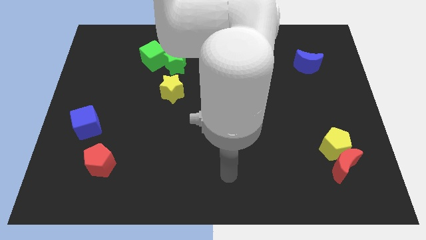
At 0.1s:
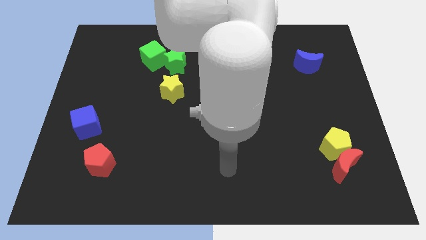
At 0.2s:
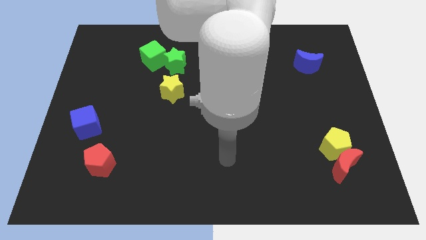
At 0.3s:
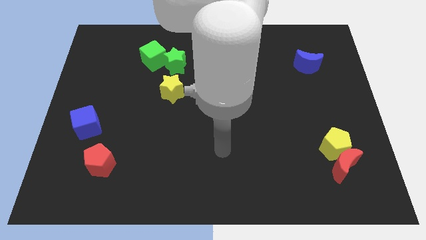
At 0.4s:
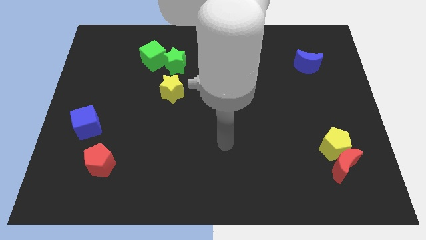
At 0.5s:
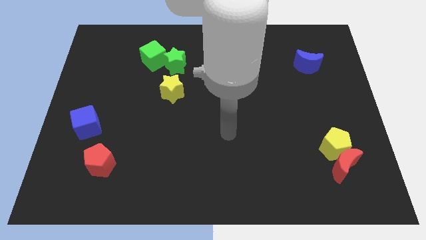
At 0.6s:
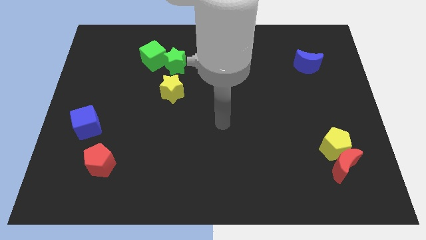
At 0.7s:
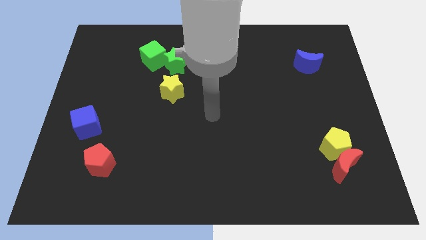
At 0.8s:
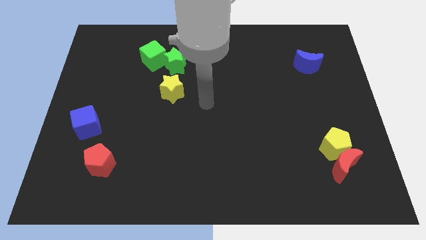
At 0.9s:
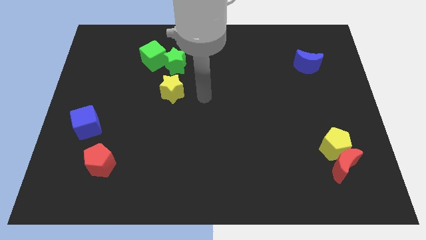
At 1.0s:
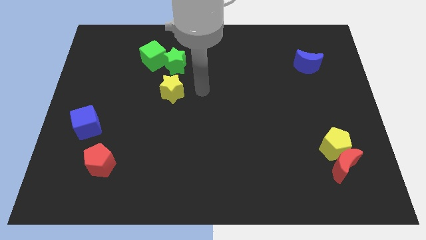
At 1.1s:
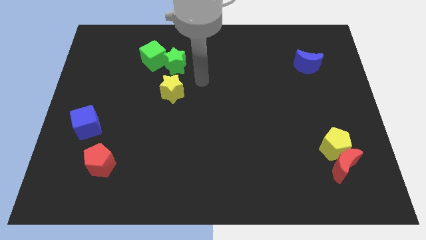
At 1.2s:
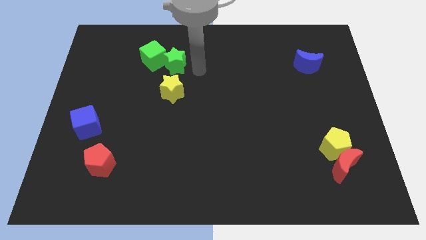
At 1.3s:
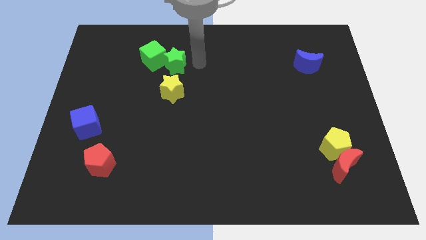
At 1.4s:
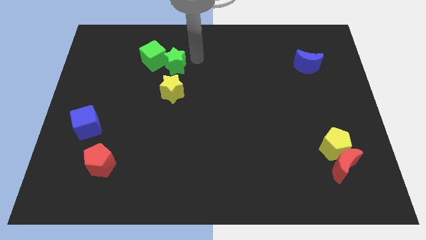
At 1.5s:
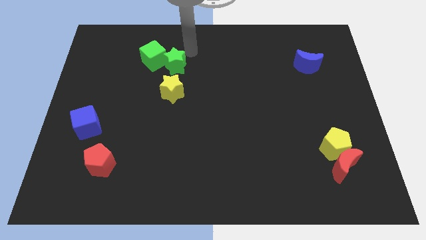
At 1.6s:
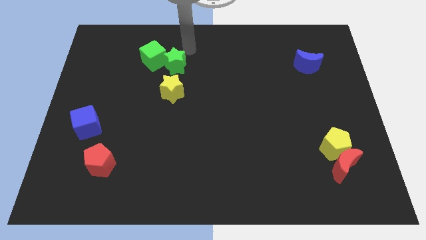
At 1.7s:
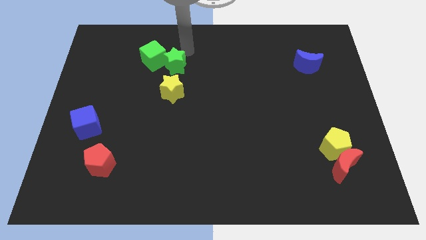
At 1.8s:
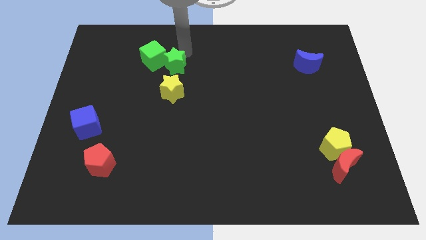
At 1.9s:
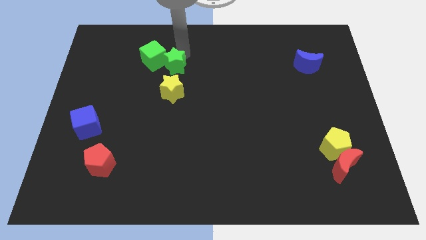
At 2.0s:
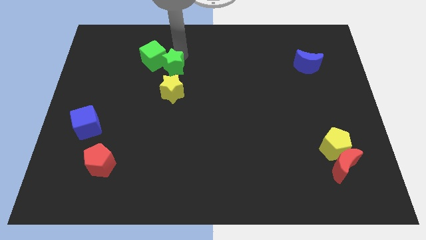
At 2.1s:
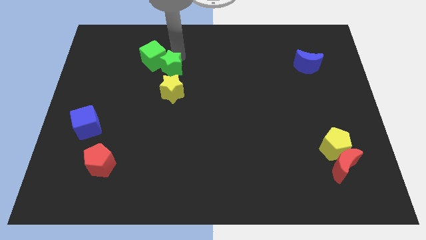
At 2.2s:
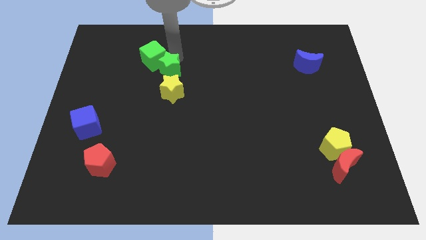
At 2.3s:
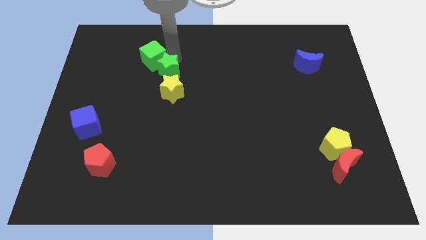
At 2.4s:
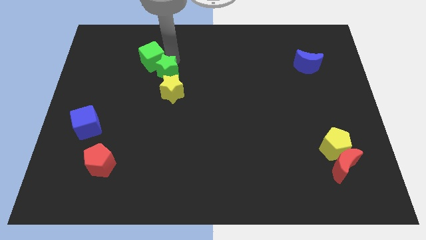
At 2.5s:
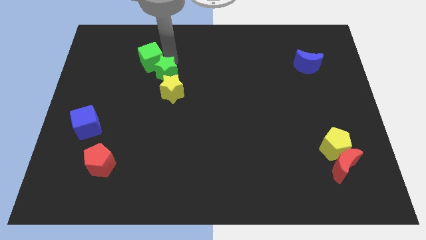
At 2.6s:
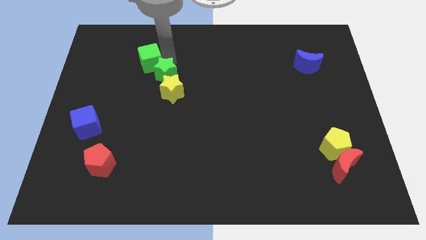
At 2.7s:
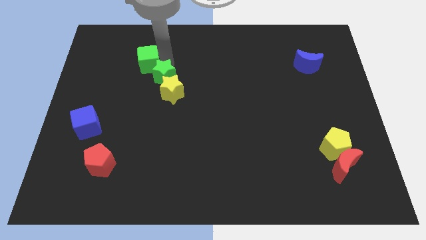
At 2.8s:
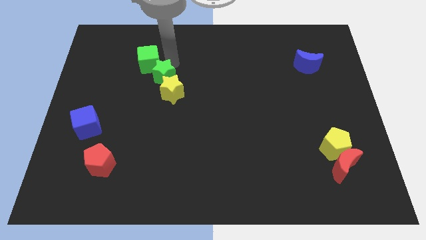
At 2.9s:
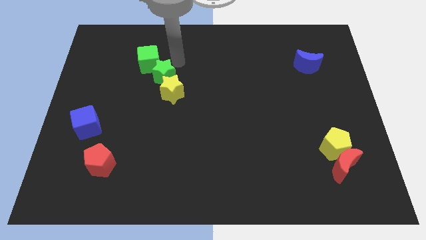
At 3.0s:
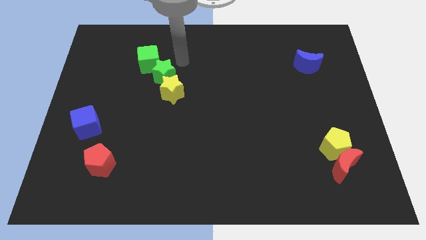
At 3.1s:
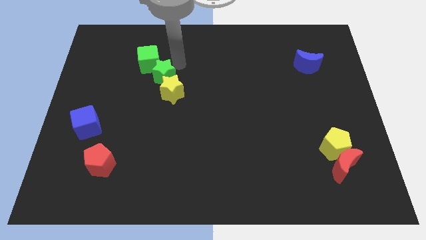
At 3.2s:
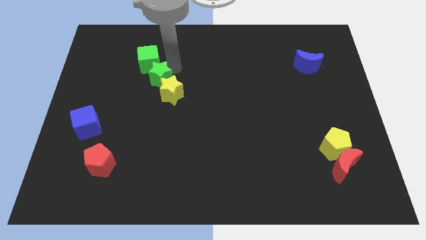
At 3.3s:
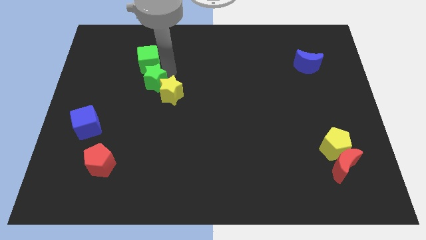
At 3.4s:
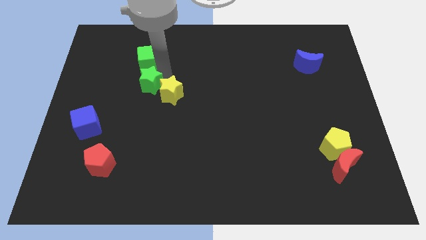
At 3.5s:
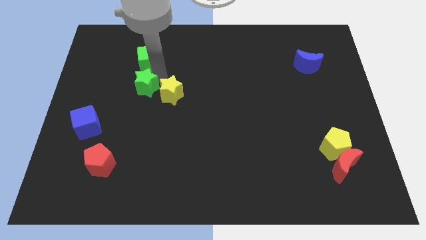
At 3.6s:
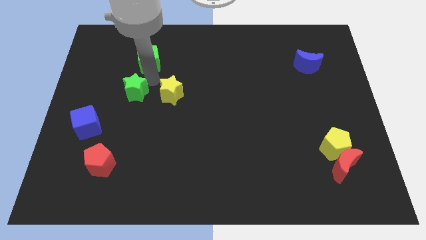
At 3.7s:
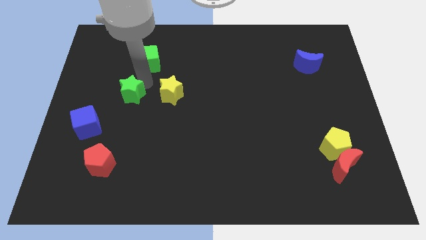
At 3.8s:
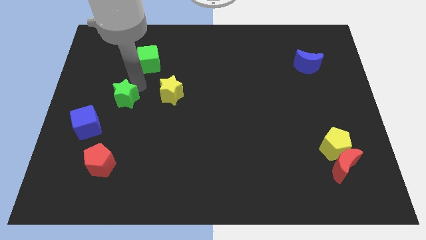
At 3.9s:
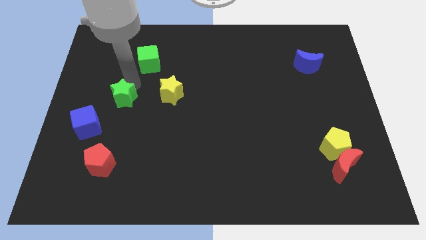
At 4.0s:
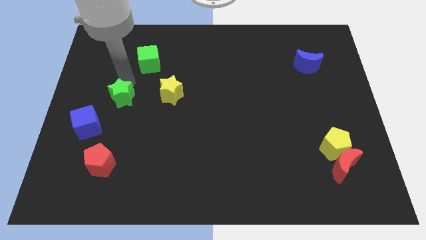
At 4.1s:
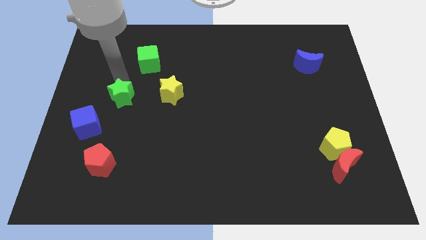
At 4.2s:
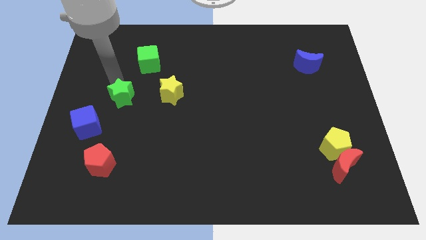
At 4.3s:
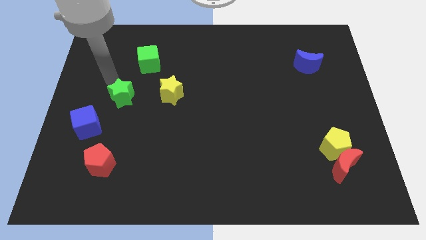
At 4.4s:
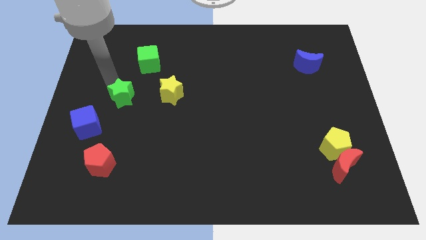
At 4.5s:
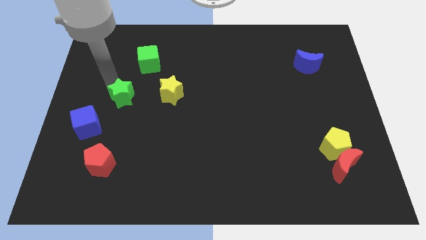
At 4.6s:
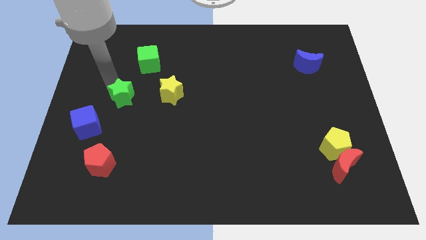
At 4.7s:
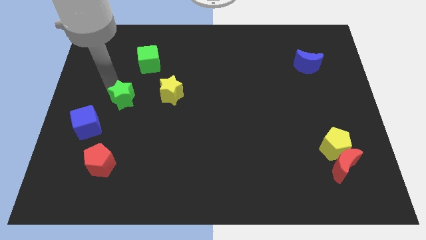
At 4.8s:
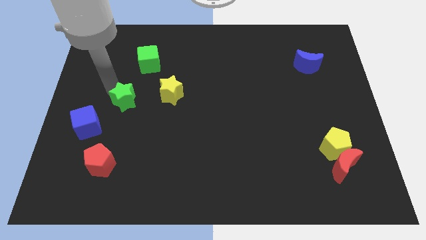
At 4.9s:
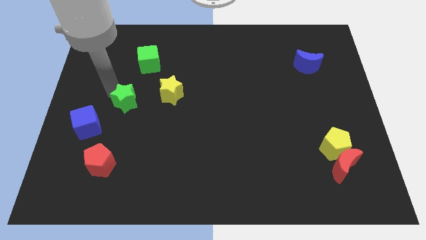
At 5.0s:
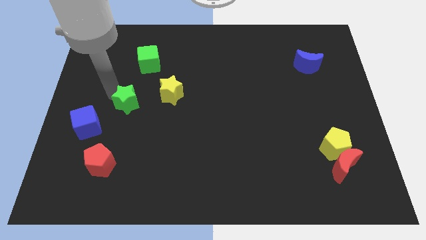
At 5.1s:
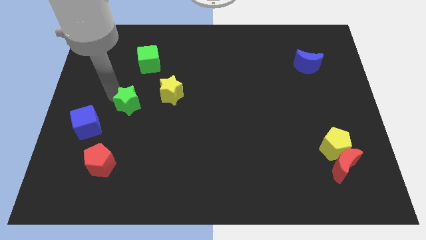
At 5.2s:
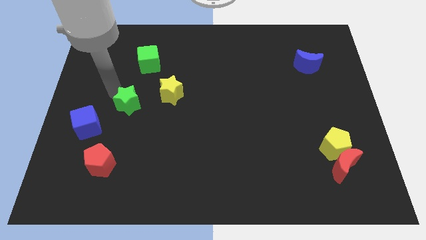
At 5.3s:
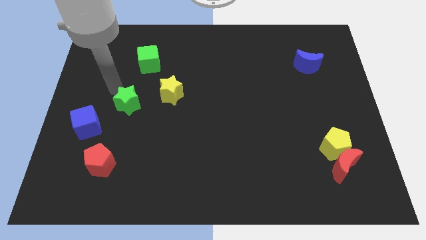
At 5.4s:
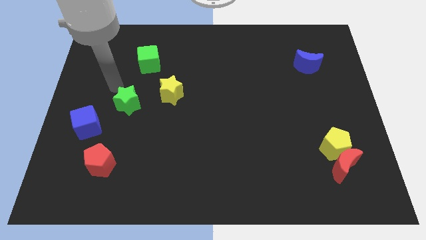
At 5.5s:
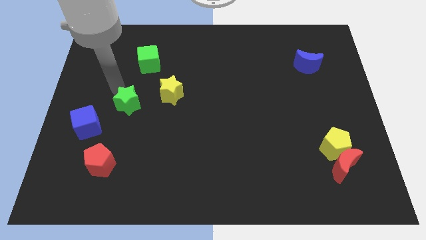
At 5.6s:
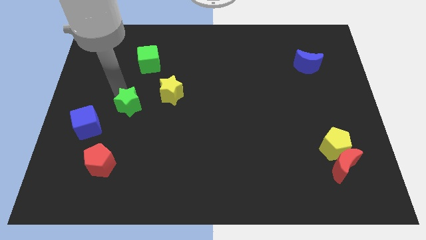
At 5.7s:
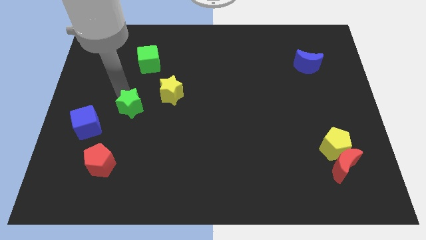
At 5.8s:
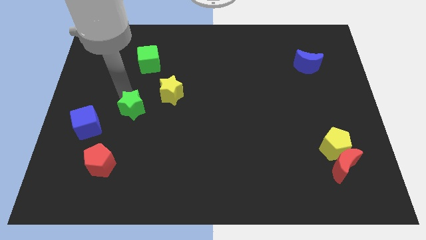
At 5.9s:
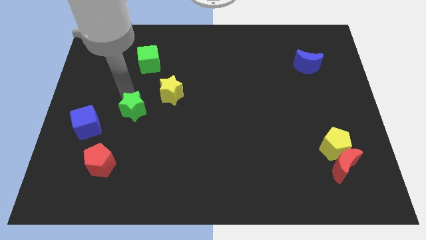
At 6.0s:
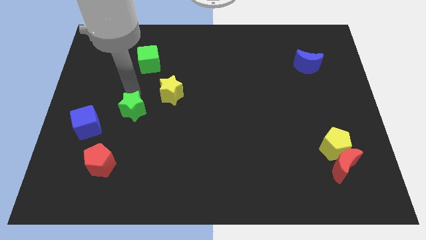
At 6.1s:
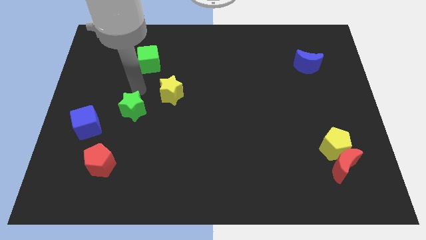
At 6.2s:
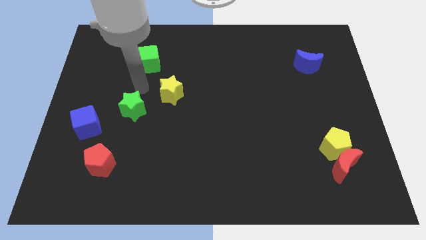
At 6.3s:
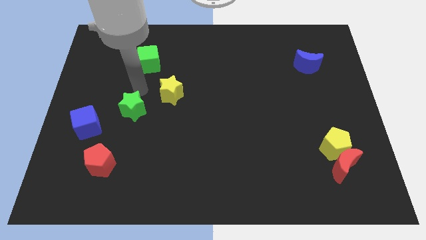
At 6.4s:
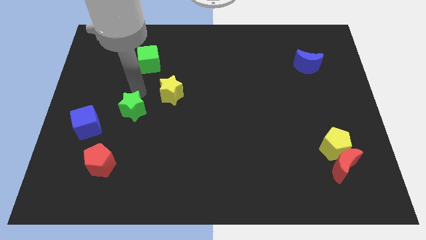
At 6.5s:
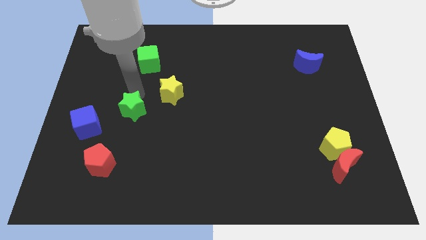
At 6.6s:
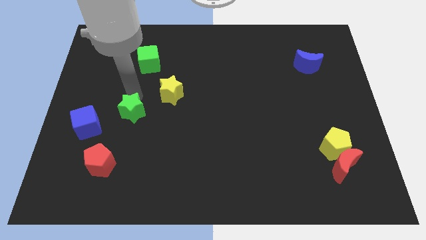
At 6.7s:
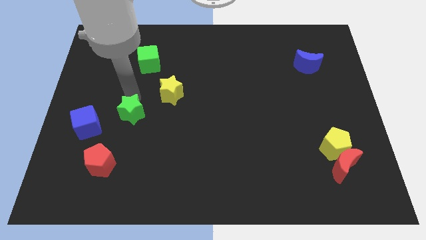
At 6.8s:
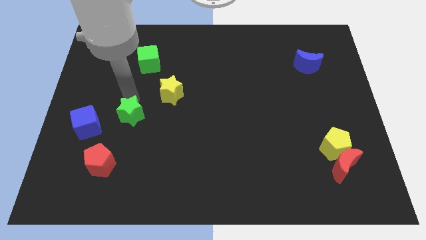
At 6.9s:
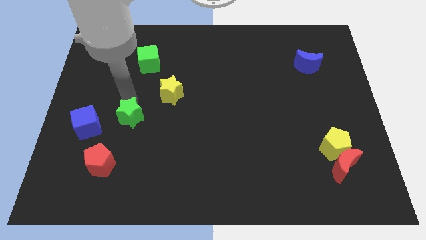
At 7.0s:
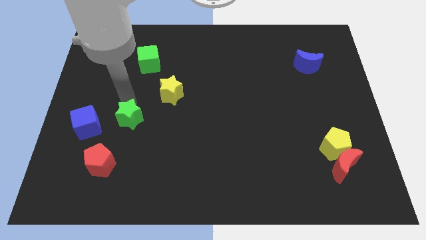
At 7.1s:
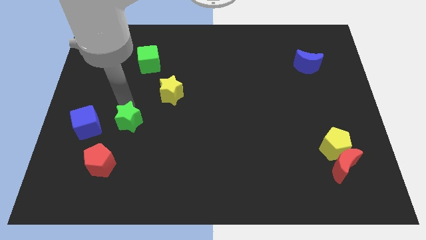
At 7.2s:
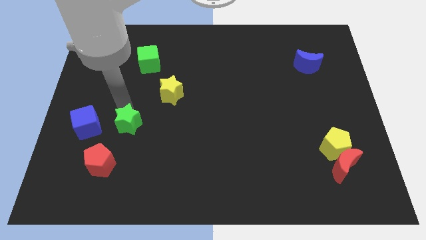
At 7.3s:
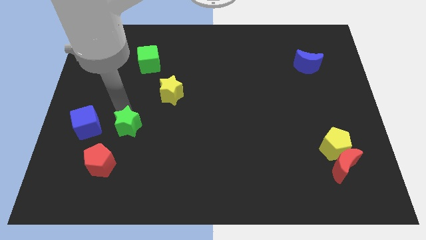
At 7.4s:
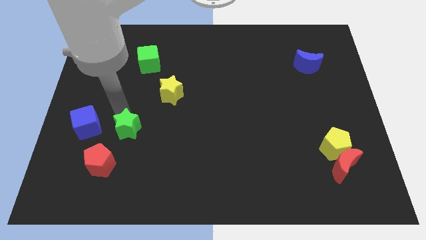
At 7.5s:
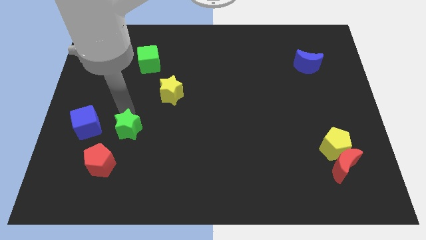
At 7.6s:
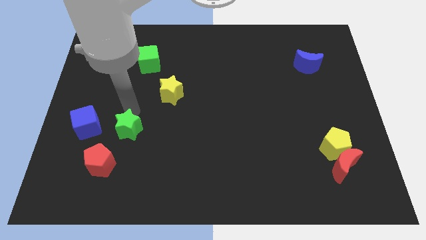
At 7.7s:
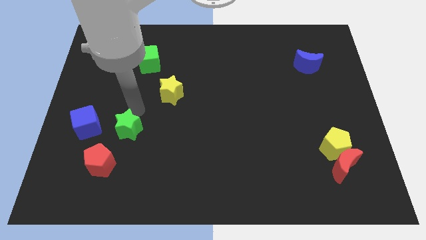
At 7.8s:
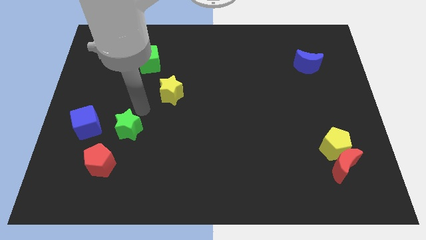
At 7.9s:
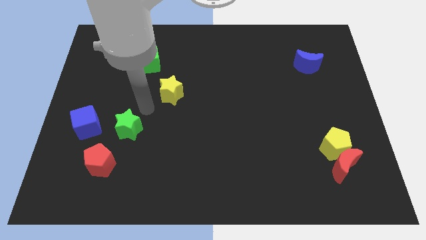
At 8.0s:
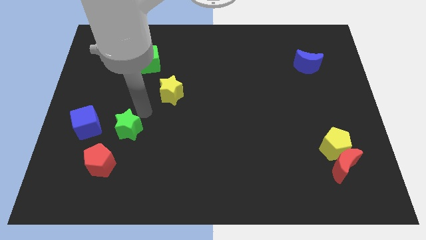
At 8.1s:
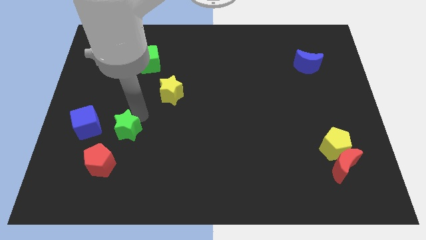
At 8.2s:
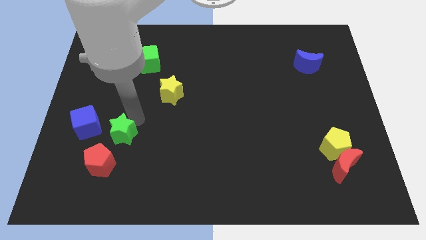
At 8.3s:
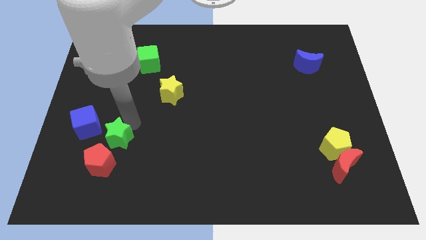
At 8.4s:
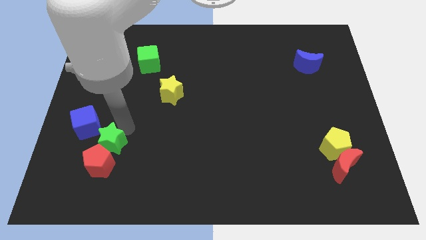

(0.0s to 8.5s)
push the green star close to the red pentagon
